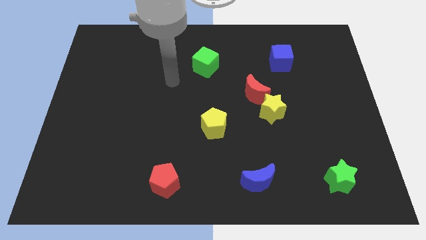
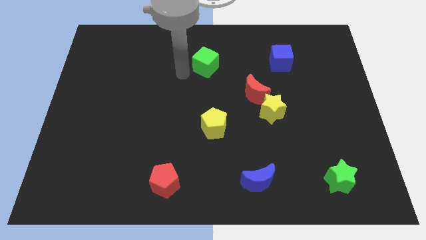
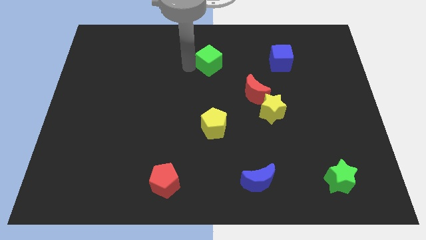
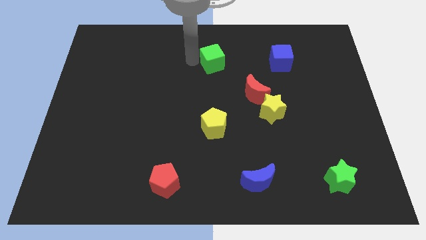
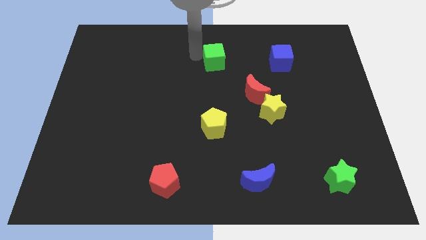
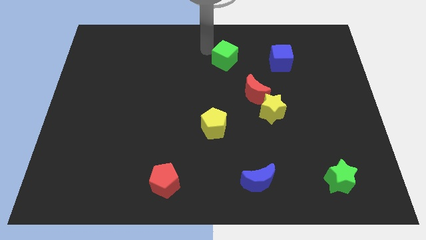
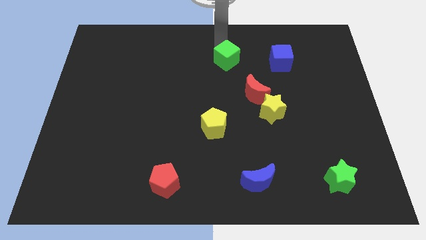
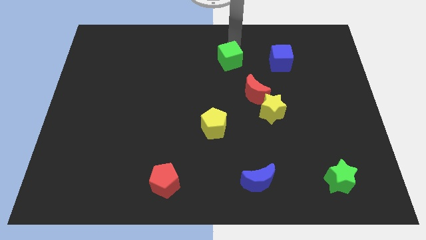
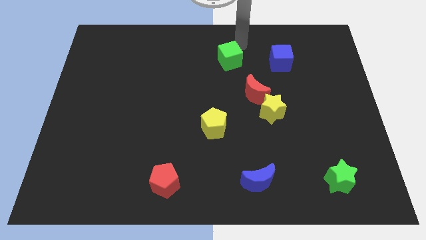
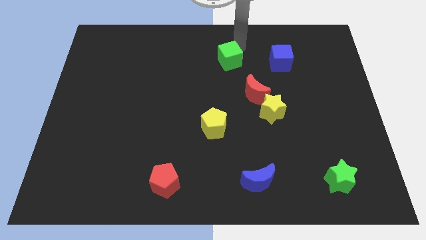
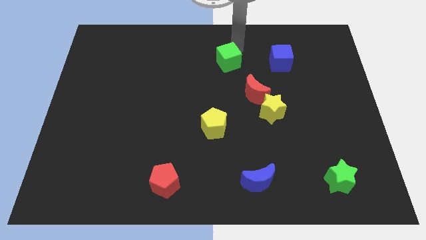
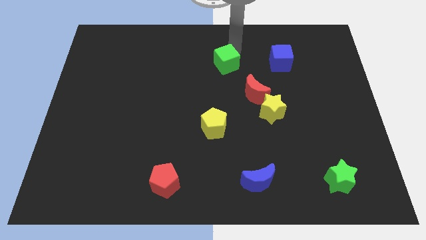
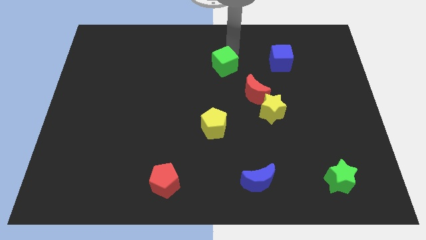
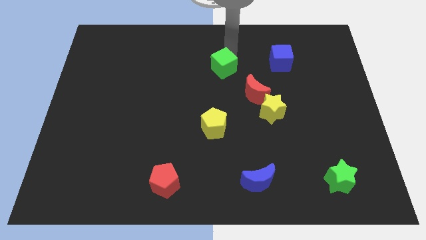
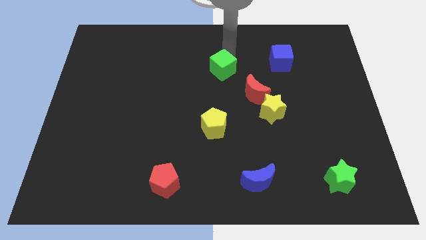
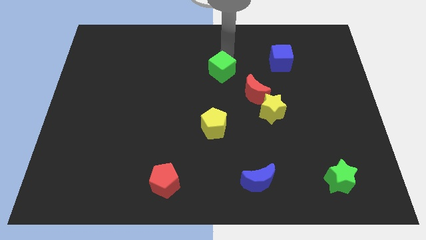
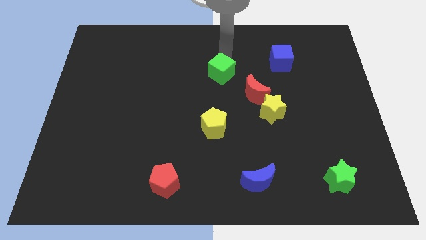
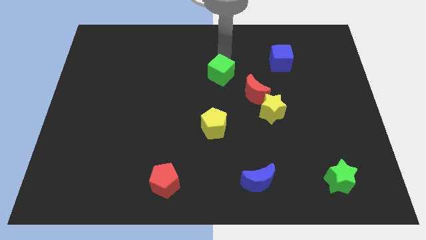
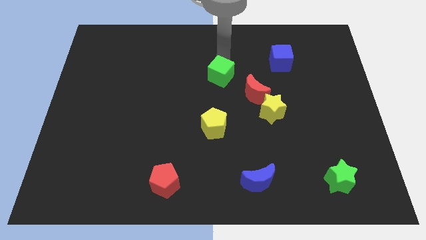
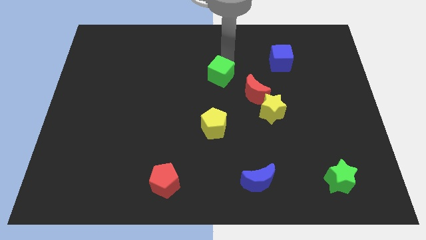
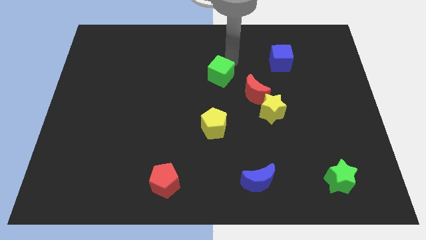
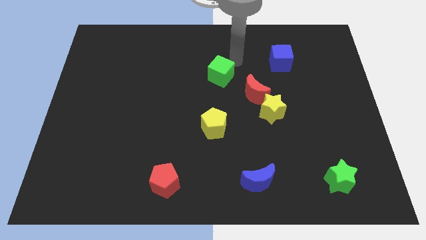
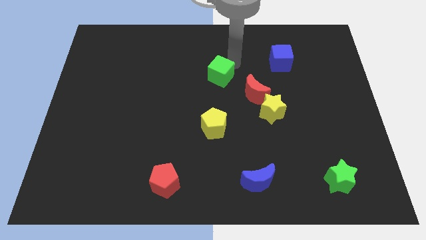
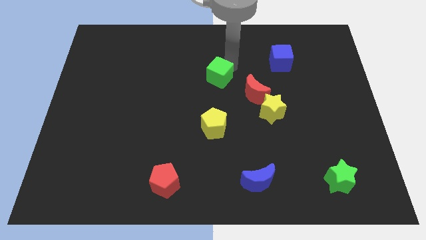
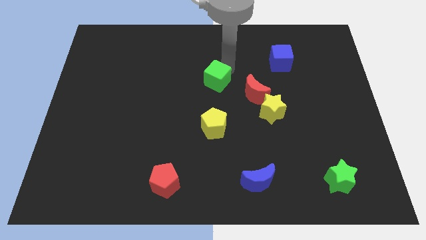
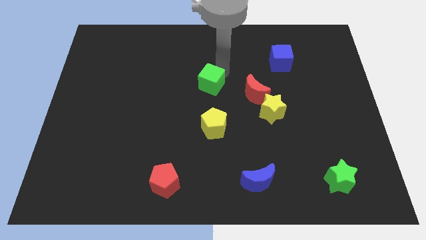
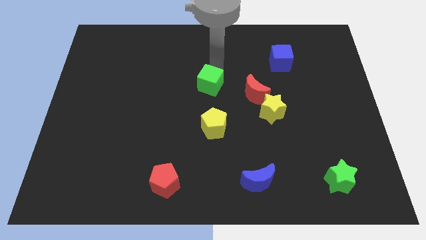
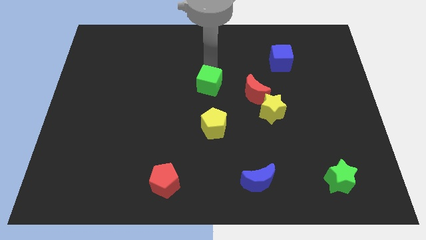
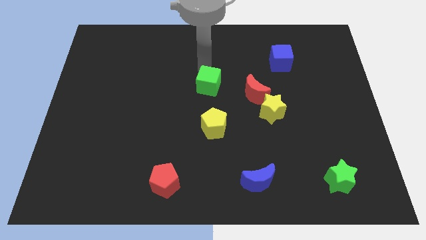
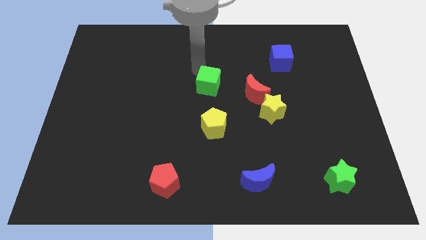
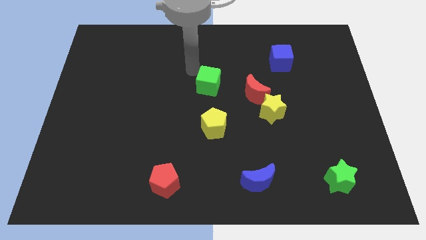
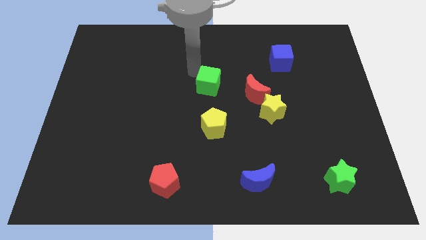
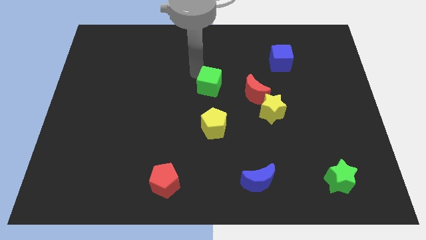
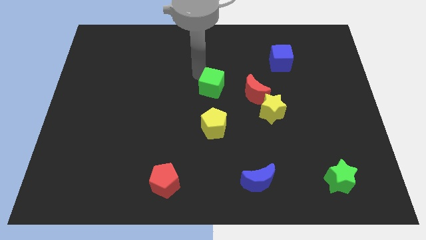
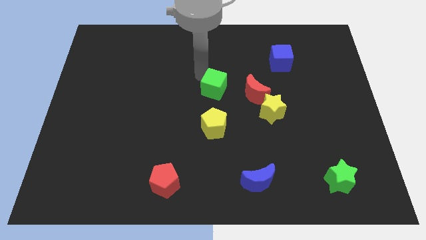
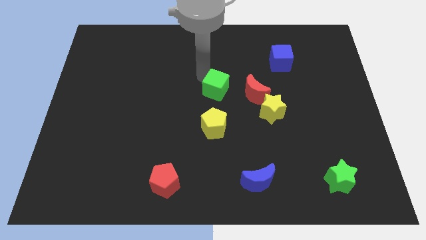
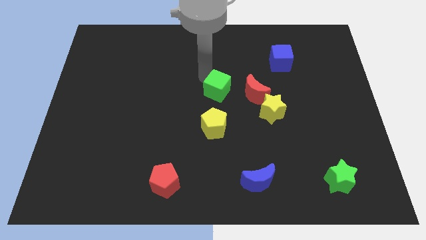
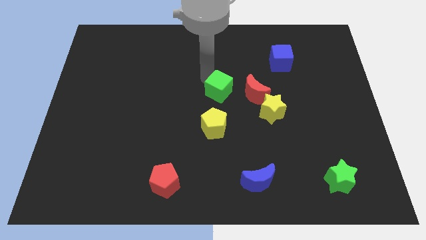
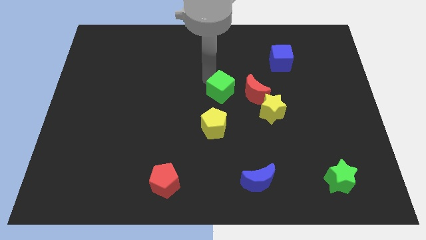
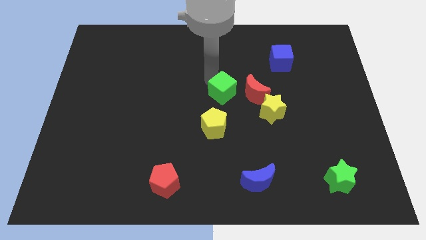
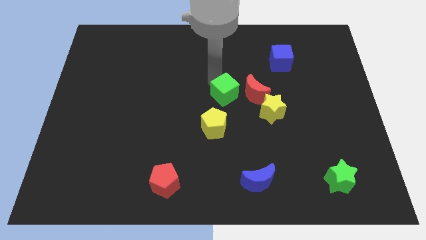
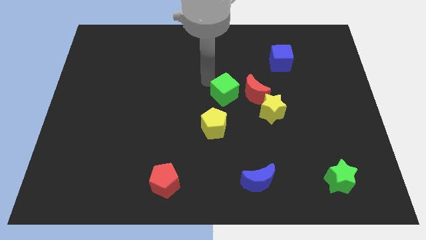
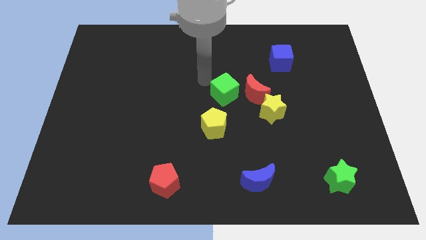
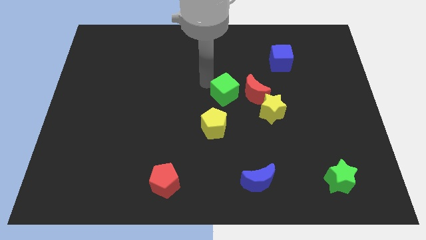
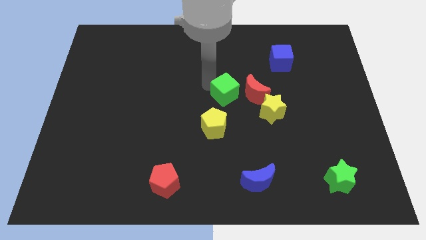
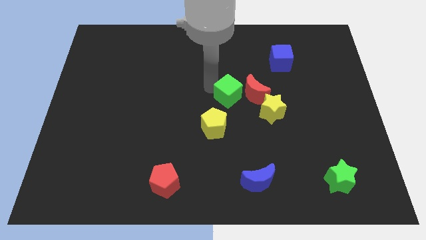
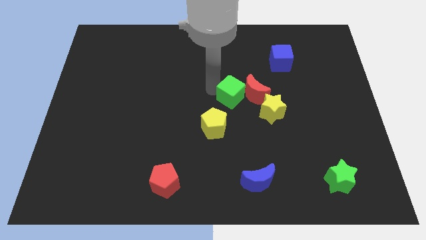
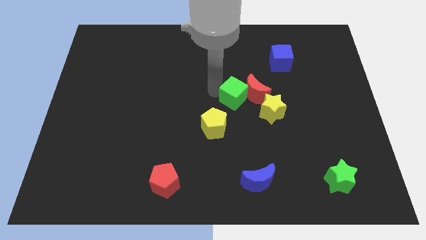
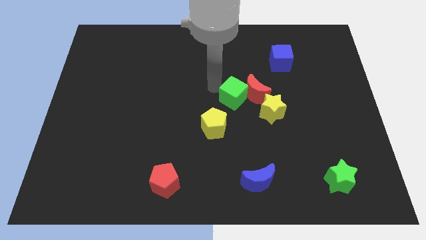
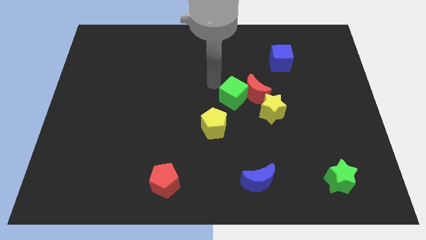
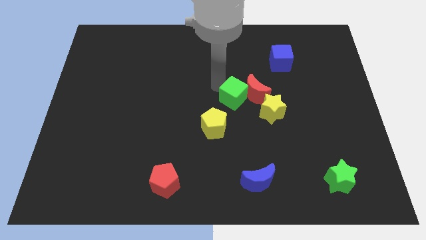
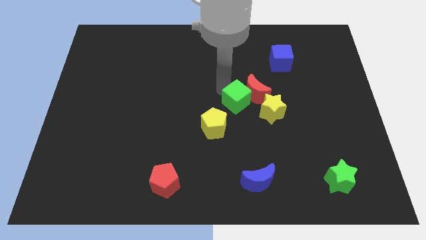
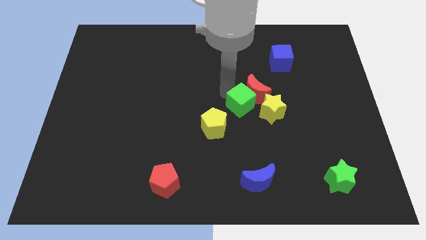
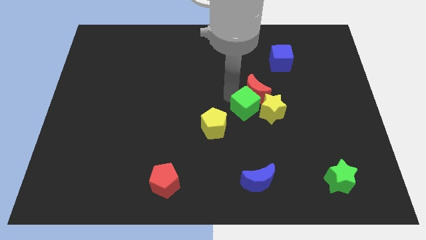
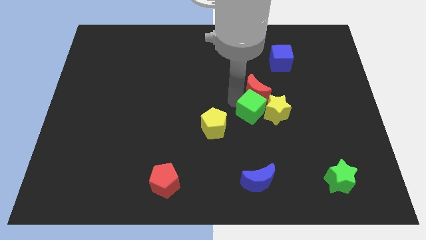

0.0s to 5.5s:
put the green cube next to the yellow star

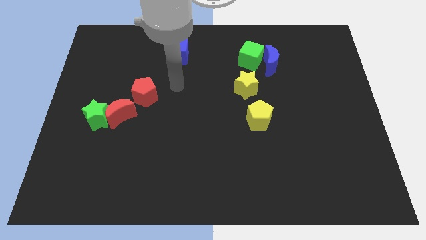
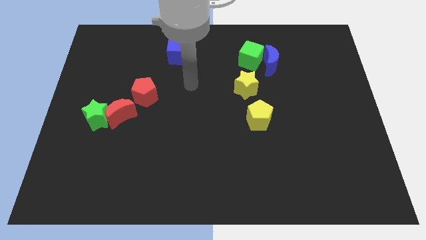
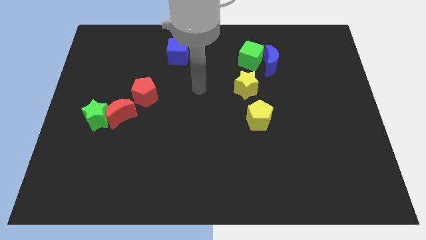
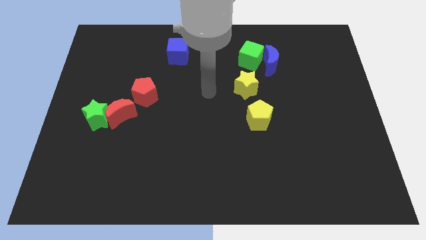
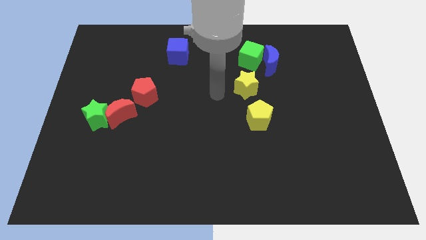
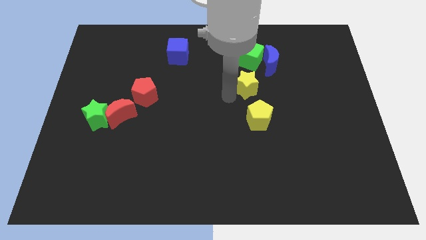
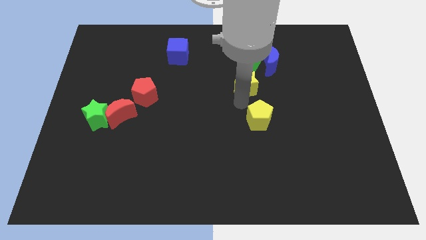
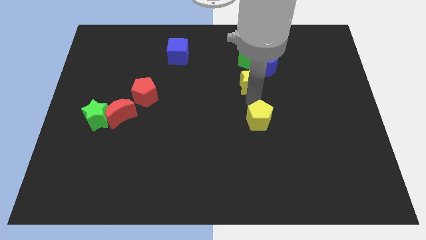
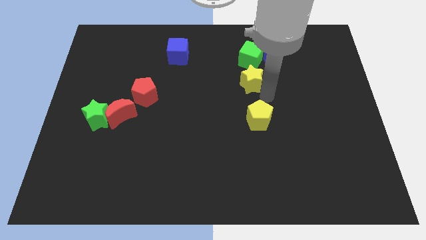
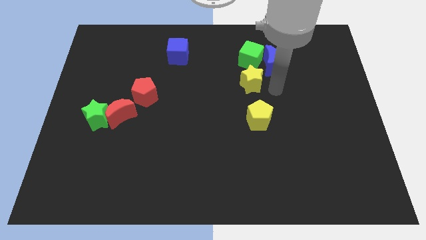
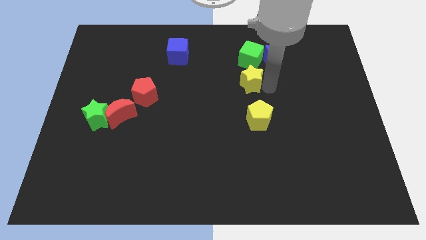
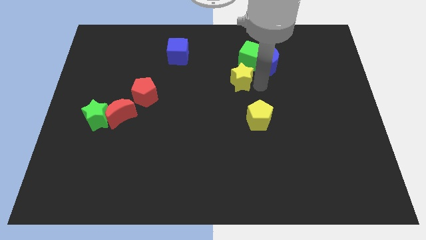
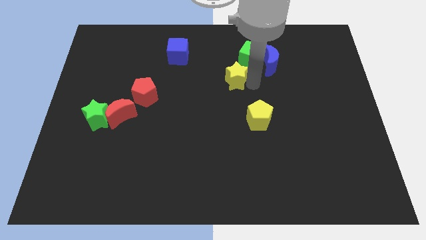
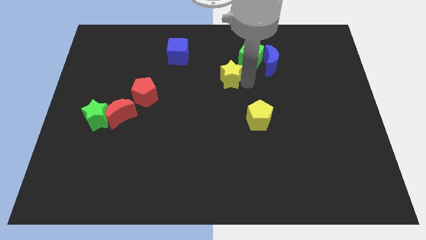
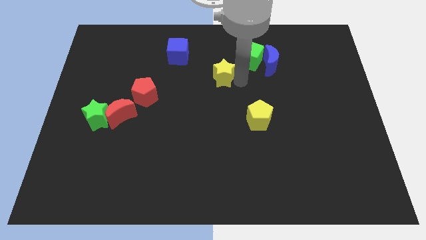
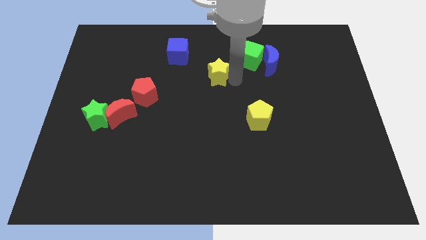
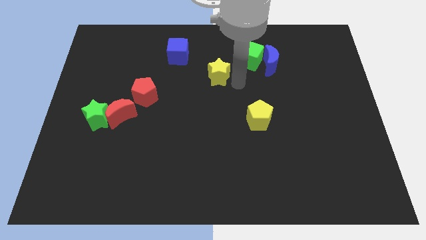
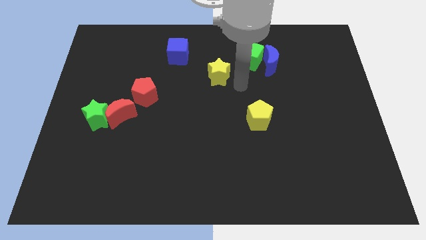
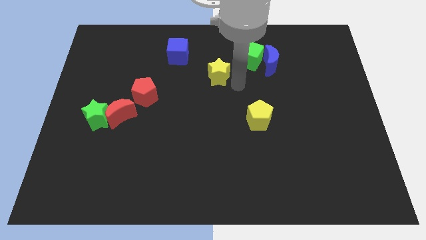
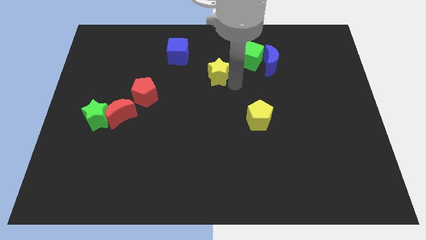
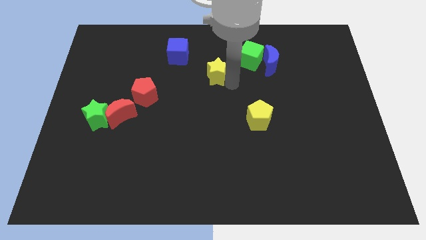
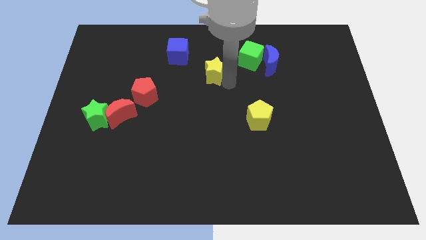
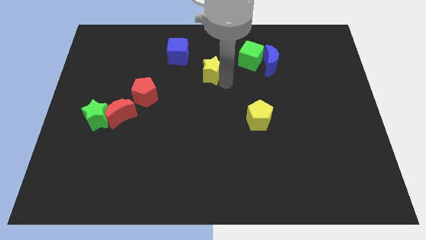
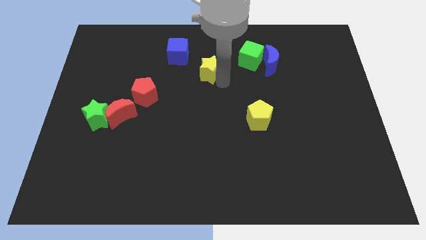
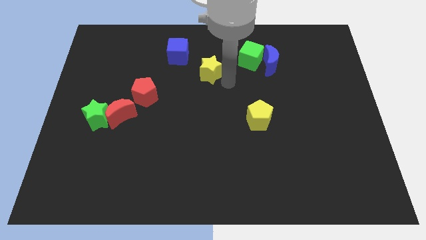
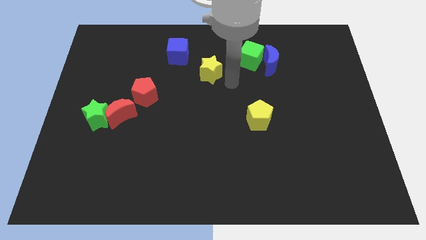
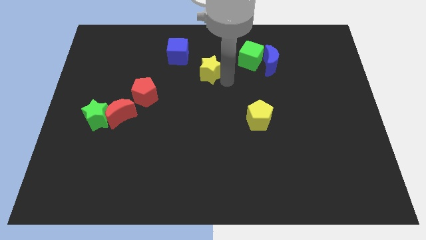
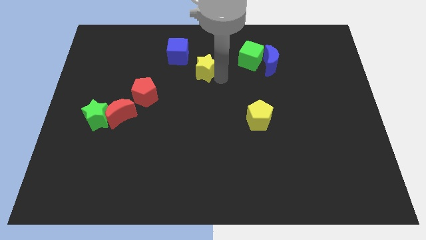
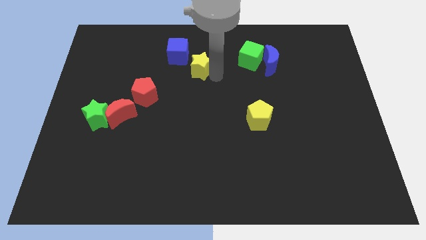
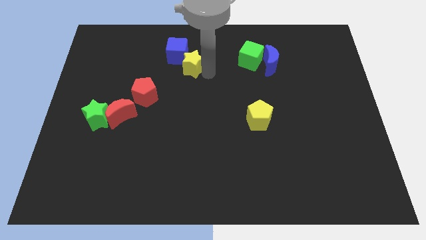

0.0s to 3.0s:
slide the yellow star next to the blue cube
